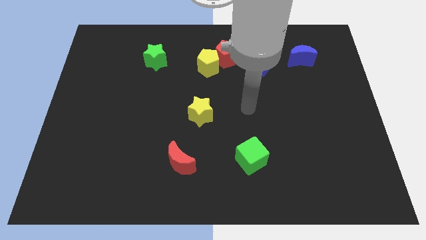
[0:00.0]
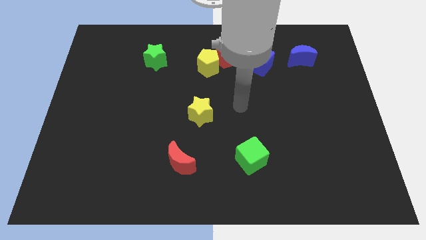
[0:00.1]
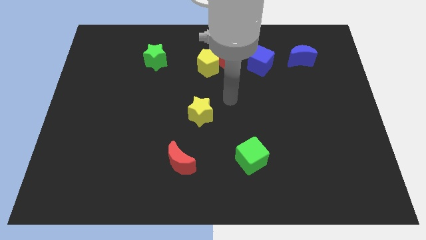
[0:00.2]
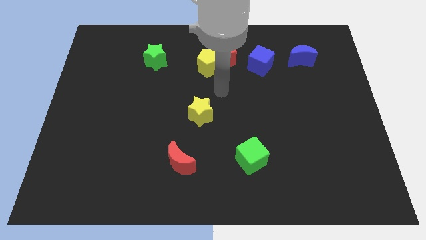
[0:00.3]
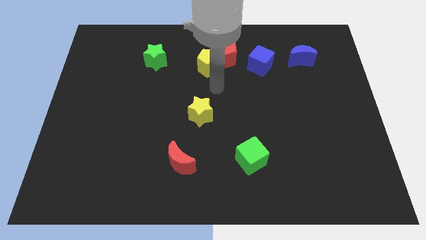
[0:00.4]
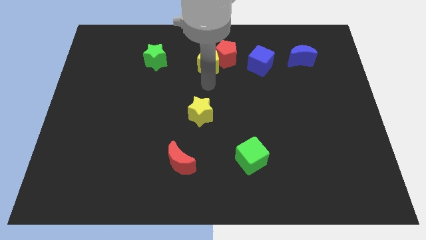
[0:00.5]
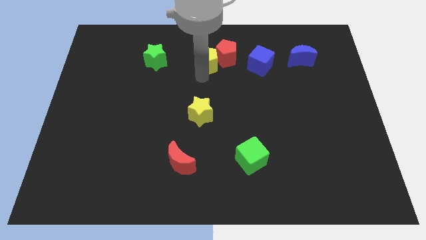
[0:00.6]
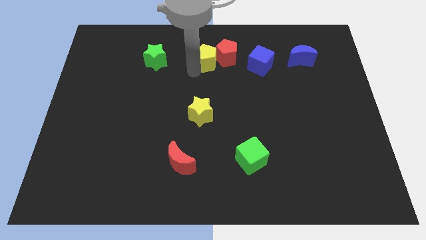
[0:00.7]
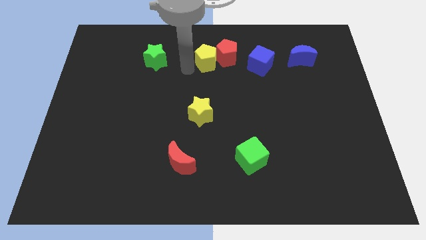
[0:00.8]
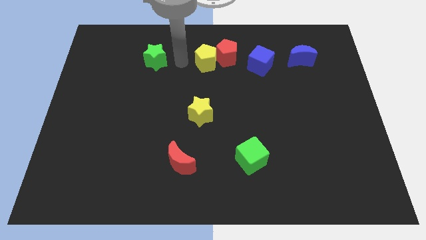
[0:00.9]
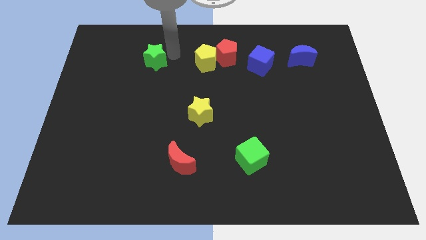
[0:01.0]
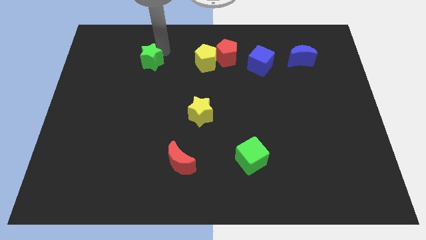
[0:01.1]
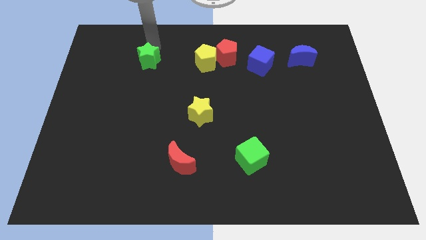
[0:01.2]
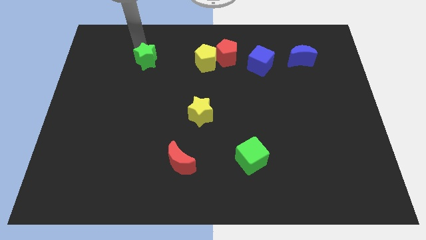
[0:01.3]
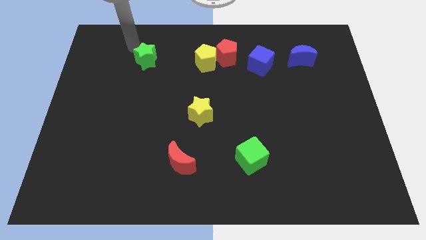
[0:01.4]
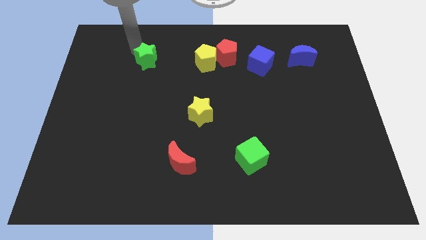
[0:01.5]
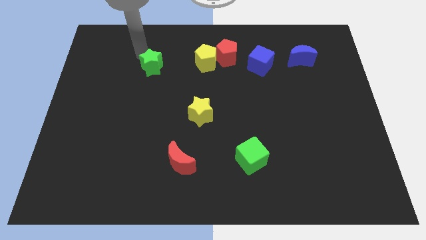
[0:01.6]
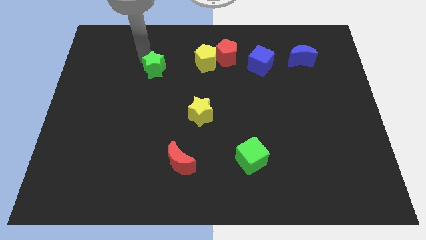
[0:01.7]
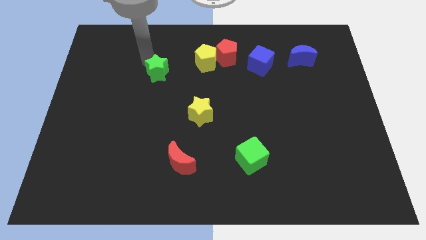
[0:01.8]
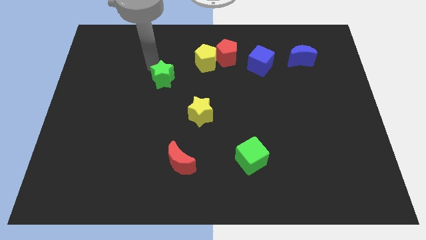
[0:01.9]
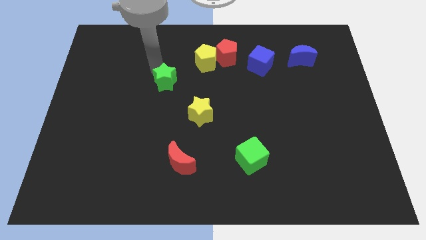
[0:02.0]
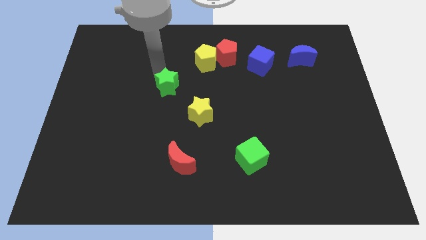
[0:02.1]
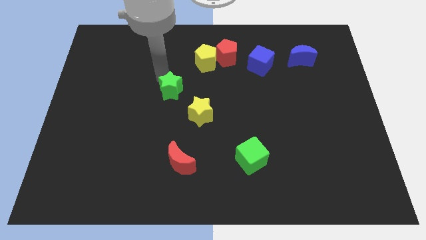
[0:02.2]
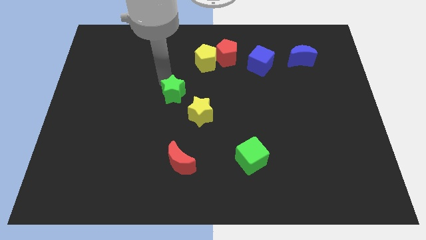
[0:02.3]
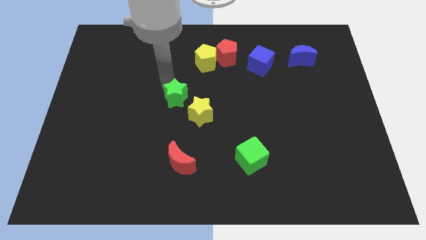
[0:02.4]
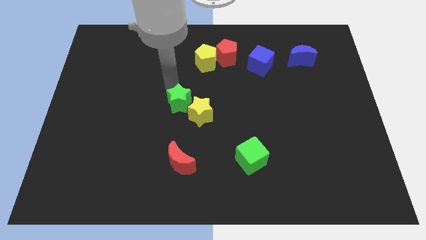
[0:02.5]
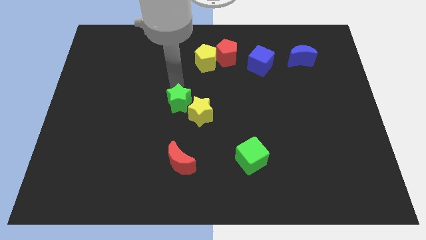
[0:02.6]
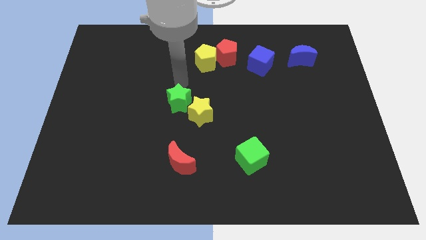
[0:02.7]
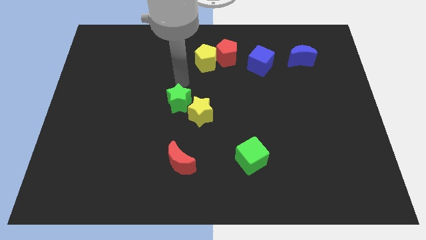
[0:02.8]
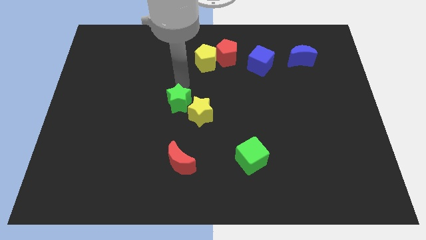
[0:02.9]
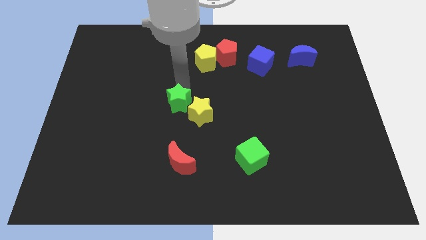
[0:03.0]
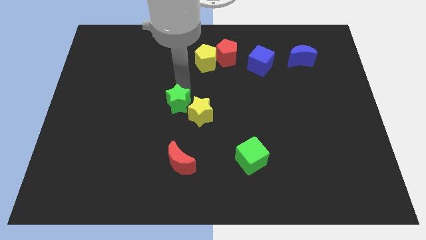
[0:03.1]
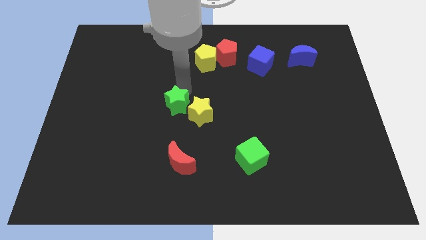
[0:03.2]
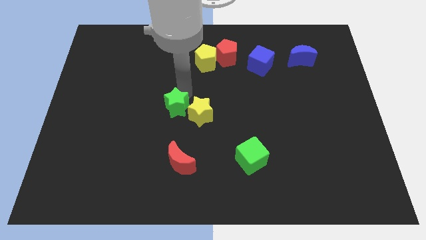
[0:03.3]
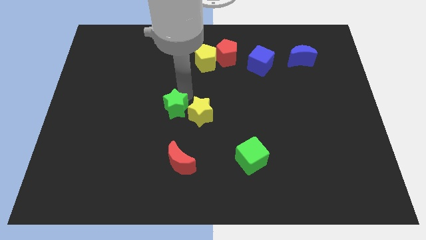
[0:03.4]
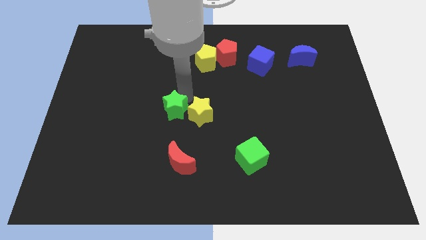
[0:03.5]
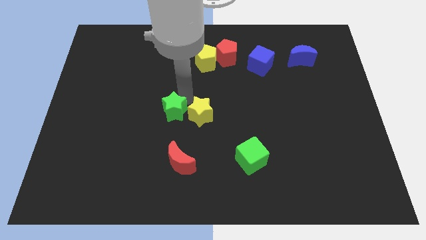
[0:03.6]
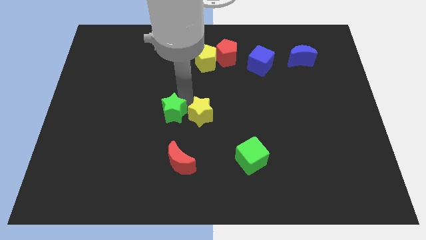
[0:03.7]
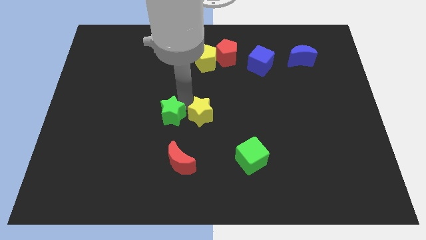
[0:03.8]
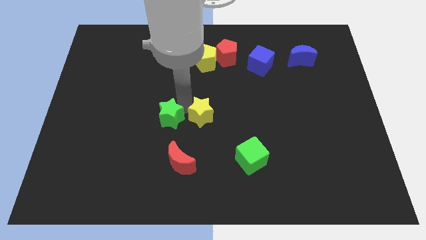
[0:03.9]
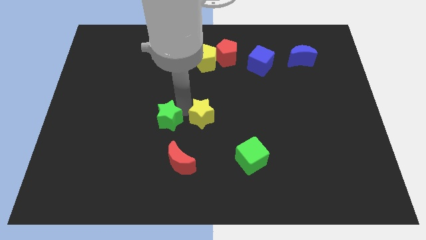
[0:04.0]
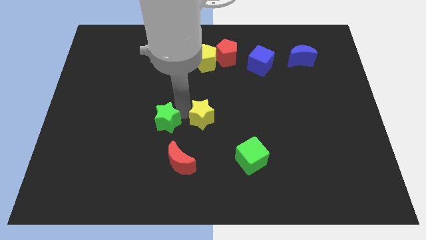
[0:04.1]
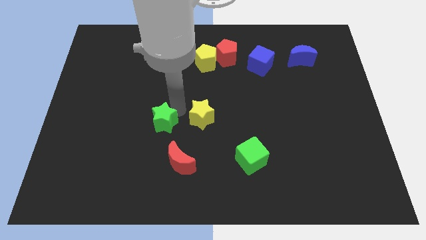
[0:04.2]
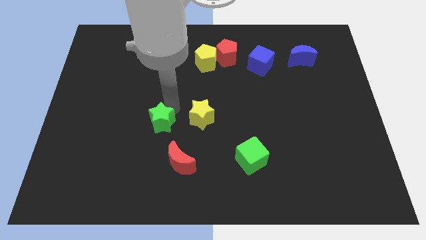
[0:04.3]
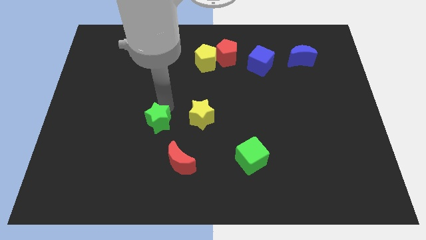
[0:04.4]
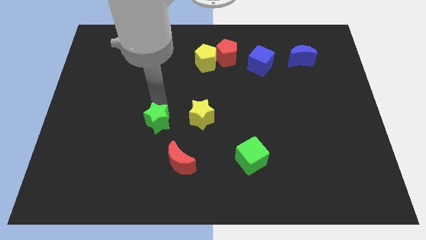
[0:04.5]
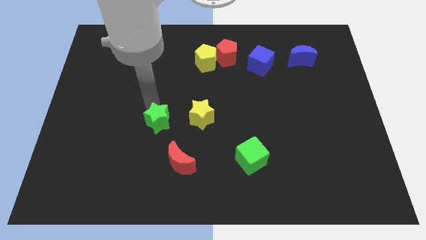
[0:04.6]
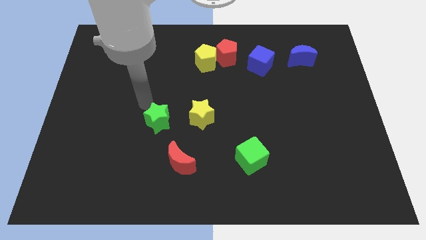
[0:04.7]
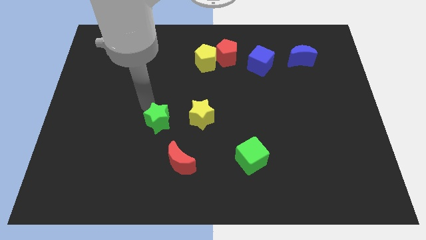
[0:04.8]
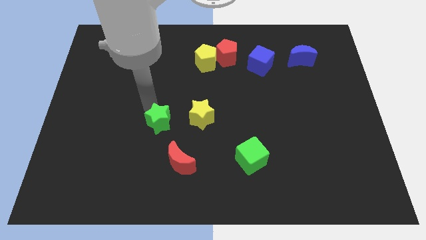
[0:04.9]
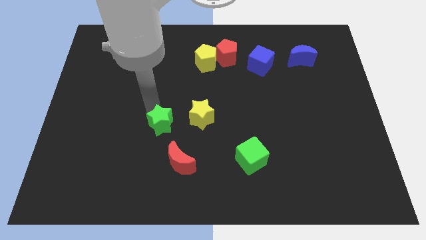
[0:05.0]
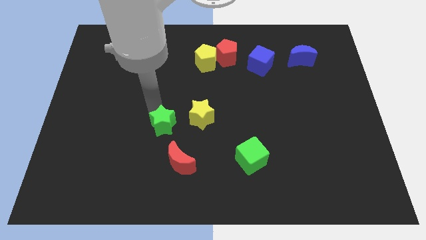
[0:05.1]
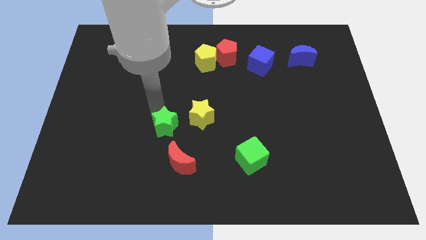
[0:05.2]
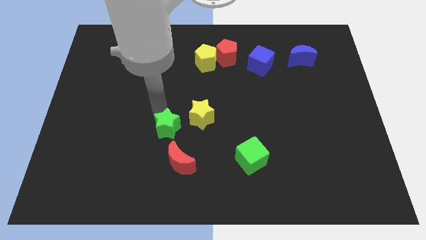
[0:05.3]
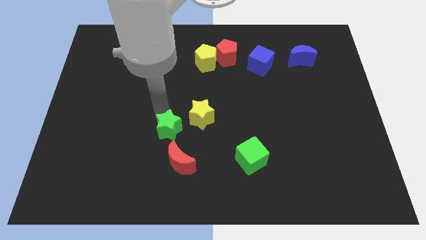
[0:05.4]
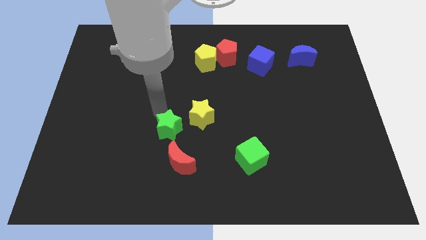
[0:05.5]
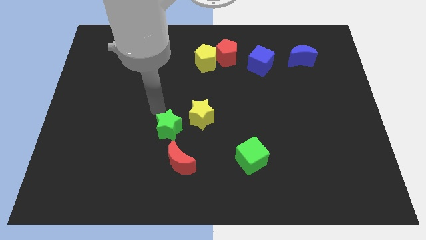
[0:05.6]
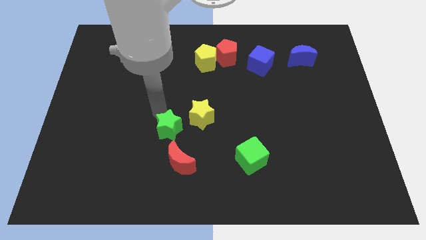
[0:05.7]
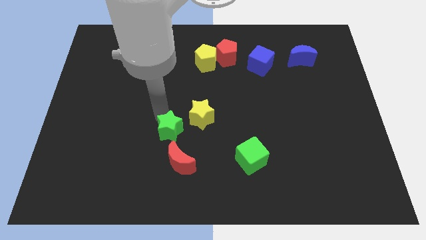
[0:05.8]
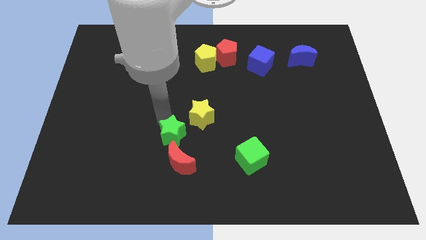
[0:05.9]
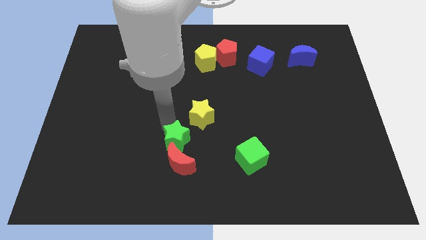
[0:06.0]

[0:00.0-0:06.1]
put the green star next to the red moon

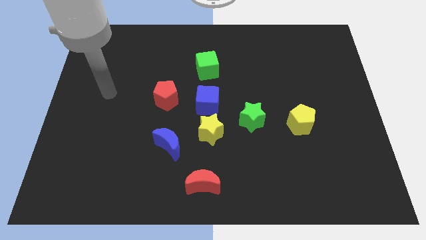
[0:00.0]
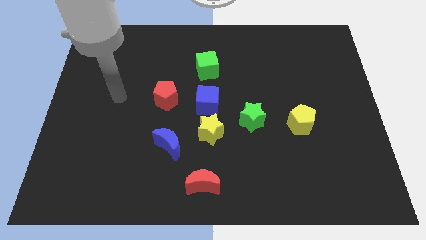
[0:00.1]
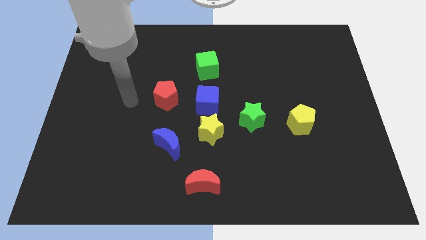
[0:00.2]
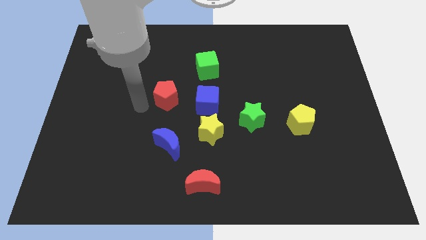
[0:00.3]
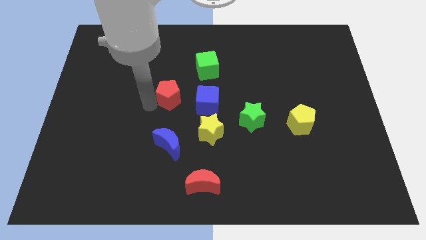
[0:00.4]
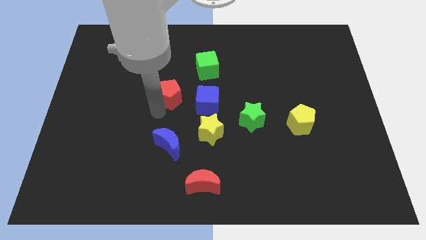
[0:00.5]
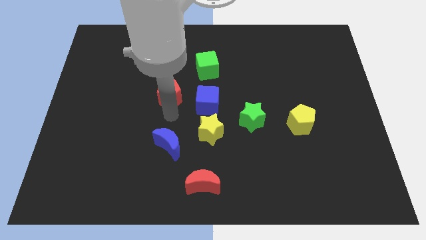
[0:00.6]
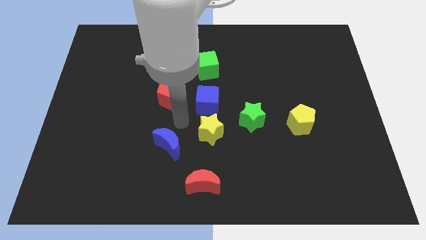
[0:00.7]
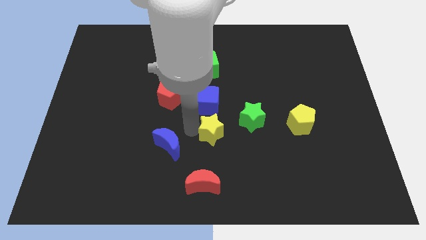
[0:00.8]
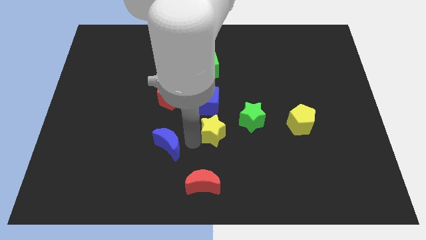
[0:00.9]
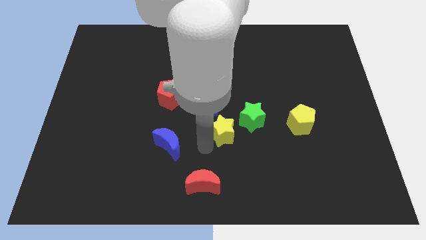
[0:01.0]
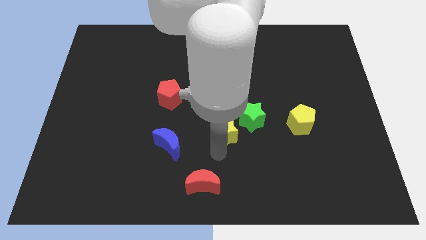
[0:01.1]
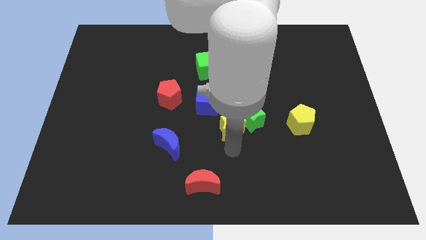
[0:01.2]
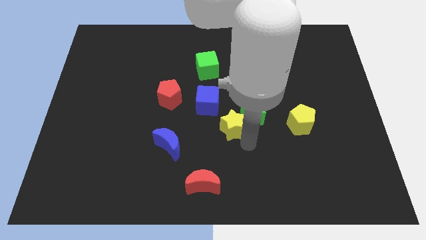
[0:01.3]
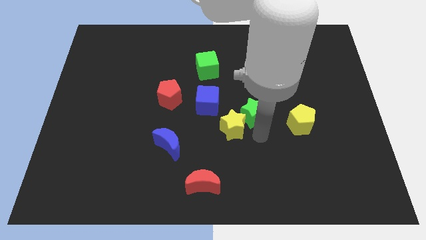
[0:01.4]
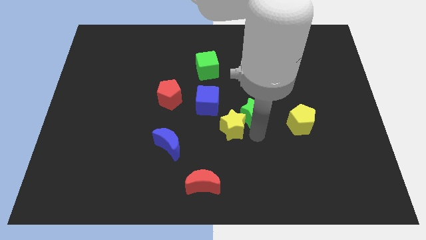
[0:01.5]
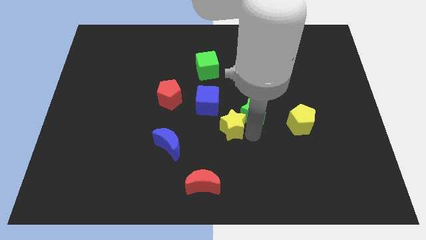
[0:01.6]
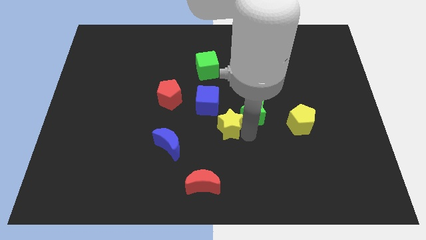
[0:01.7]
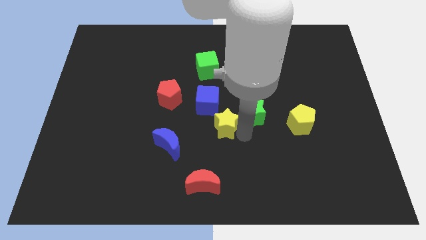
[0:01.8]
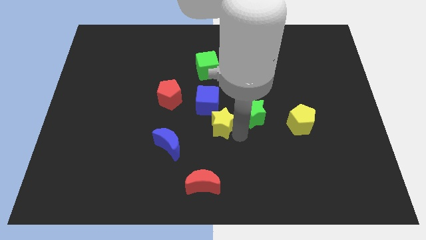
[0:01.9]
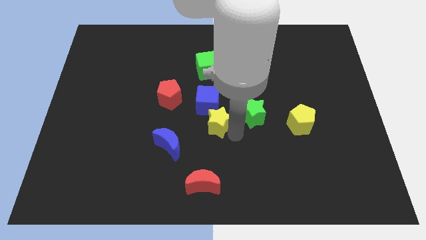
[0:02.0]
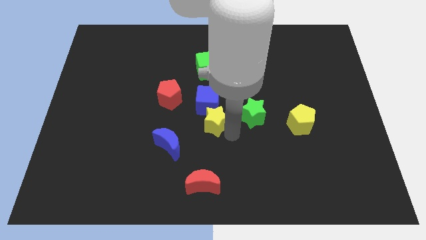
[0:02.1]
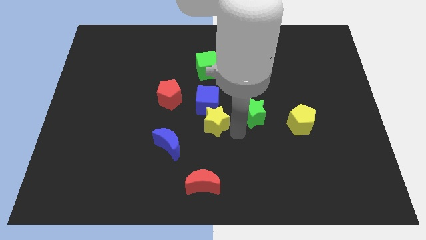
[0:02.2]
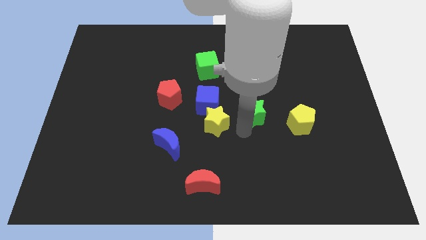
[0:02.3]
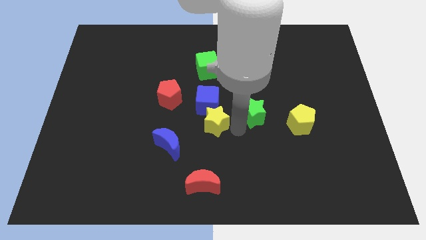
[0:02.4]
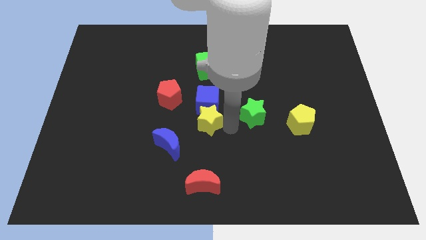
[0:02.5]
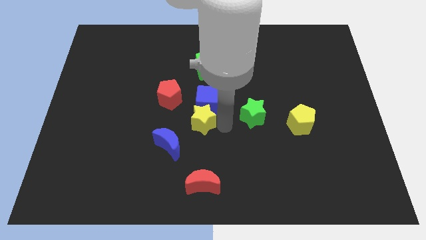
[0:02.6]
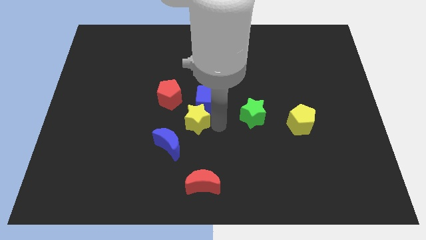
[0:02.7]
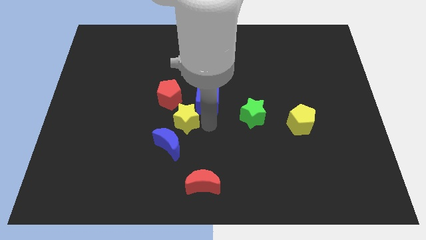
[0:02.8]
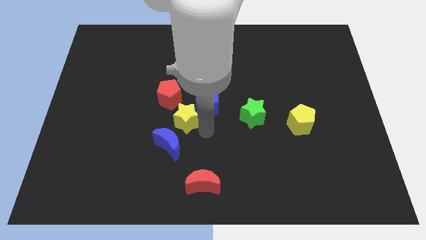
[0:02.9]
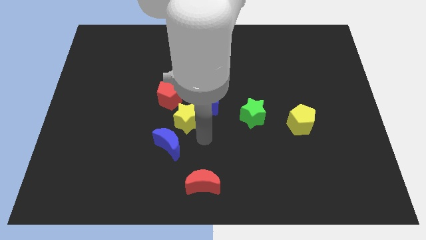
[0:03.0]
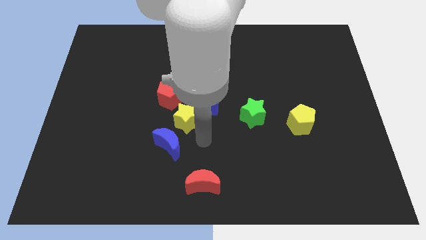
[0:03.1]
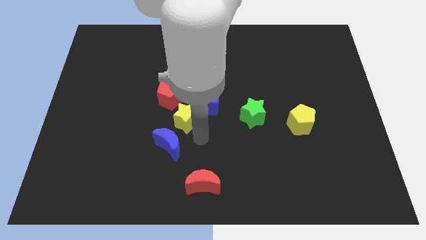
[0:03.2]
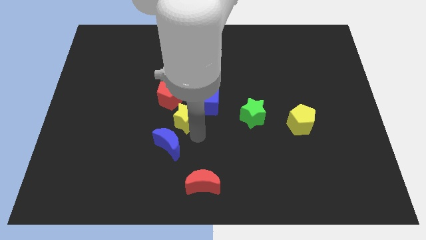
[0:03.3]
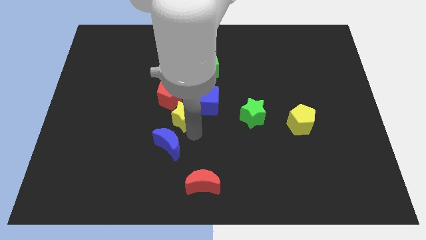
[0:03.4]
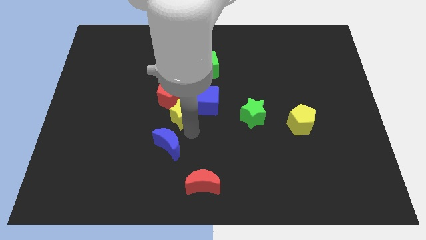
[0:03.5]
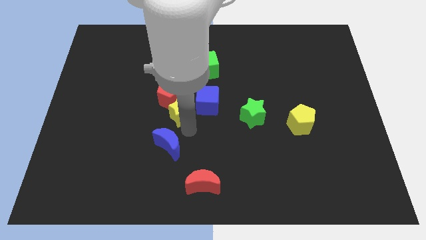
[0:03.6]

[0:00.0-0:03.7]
slide the yellow star next to the red pentagon
